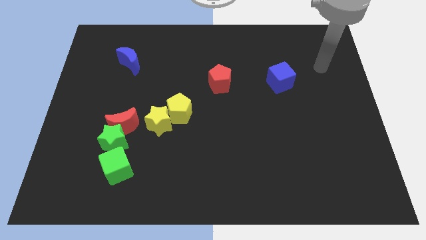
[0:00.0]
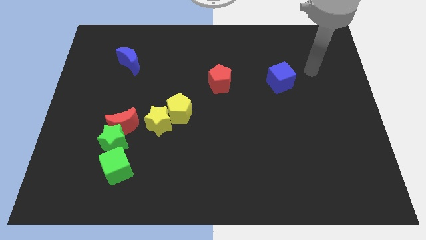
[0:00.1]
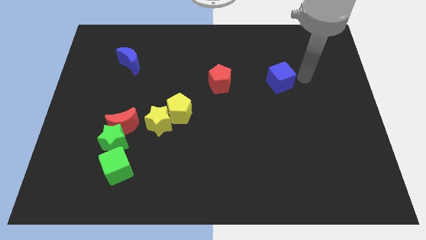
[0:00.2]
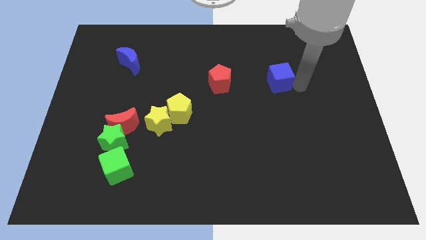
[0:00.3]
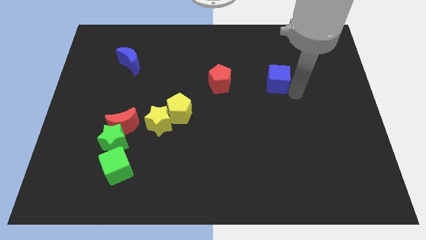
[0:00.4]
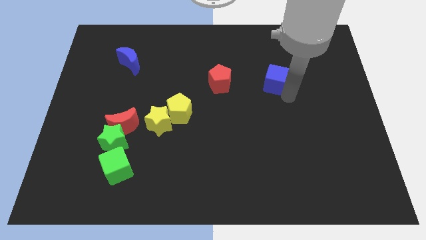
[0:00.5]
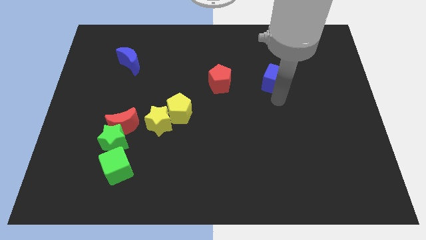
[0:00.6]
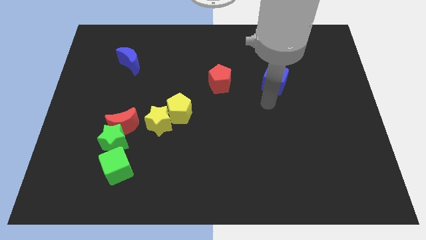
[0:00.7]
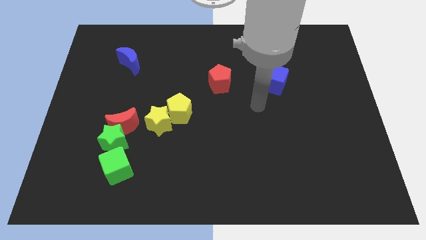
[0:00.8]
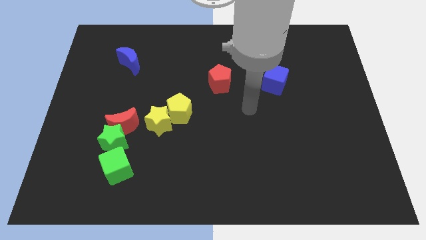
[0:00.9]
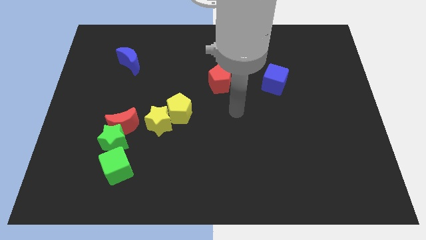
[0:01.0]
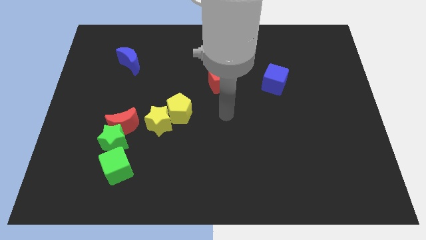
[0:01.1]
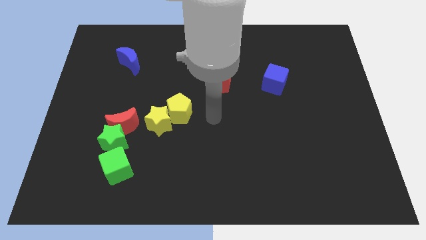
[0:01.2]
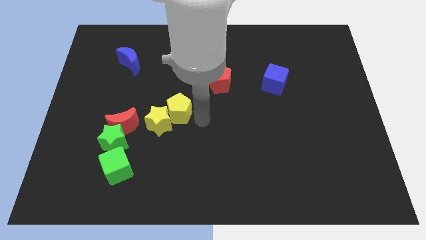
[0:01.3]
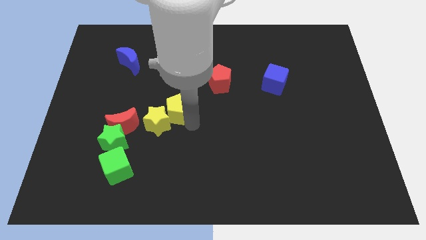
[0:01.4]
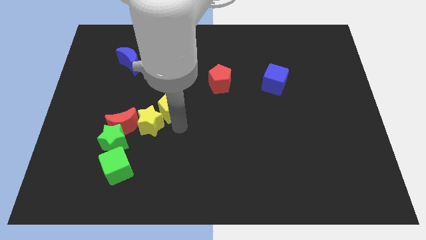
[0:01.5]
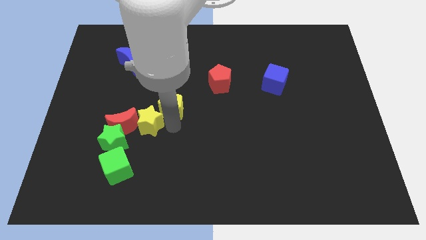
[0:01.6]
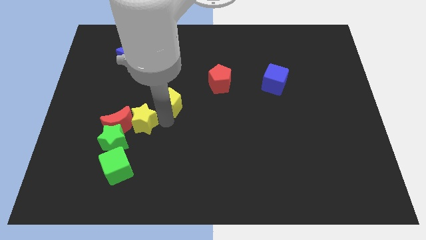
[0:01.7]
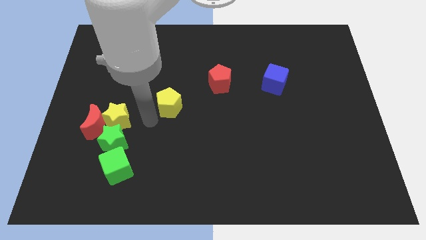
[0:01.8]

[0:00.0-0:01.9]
separate the yellow pentagon from the yellow star

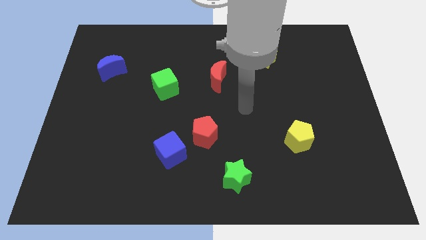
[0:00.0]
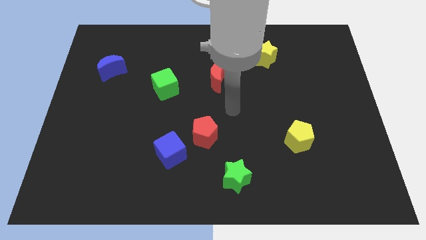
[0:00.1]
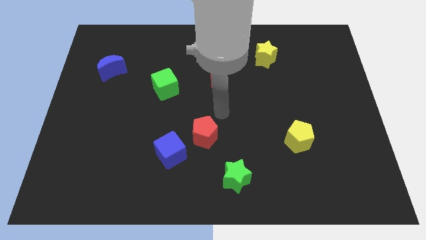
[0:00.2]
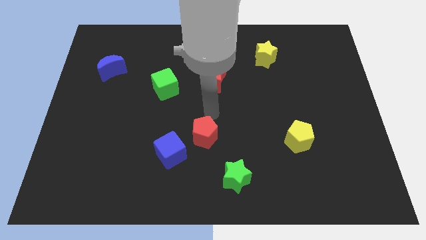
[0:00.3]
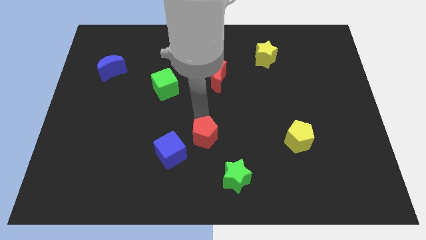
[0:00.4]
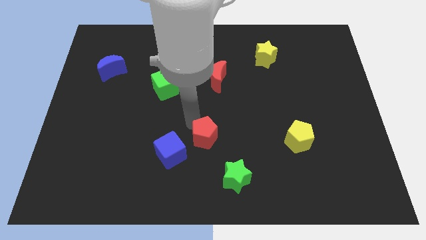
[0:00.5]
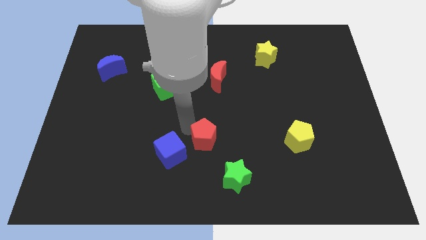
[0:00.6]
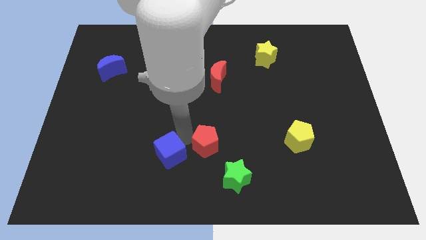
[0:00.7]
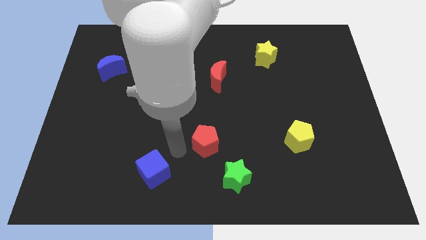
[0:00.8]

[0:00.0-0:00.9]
separate the red pentagon from the blue cube

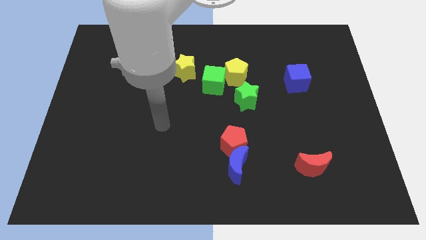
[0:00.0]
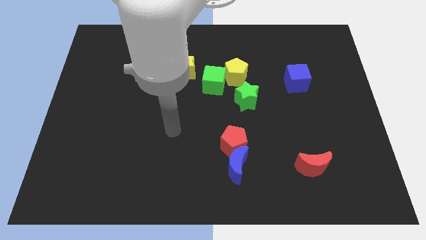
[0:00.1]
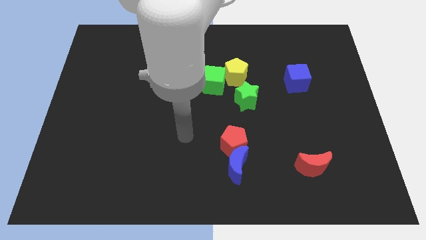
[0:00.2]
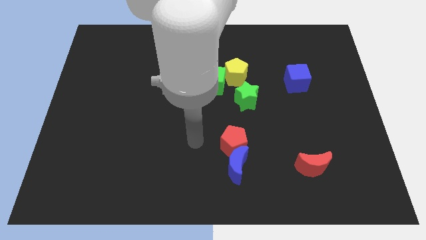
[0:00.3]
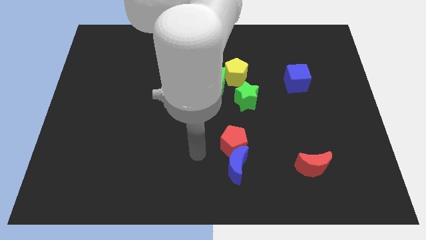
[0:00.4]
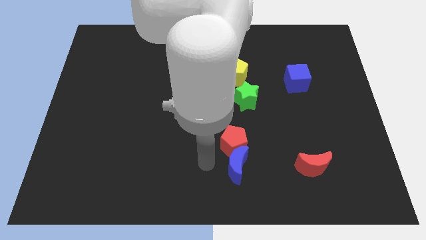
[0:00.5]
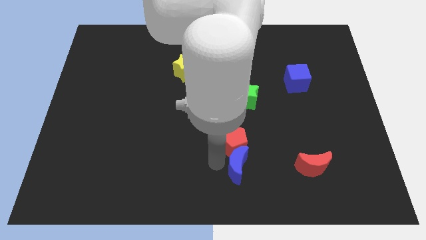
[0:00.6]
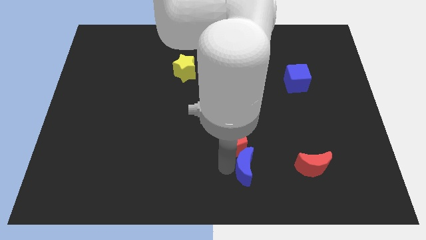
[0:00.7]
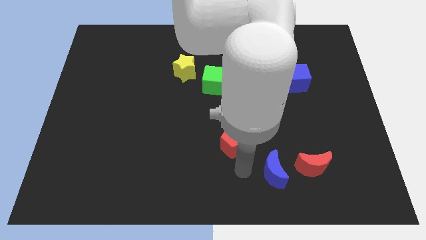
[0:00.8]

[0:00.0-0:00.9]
separate the red pentagon from the blue moon

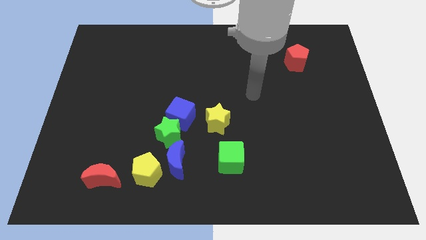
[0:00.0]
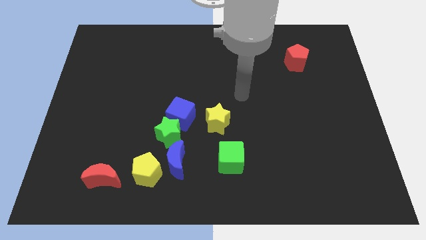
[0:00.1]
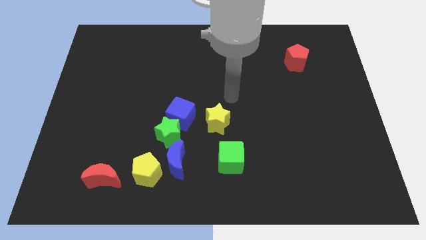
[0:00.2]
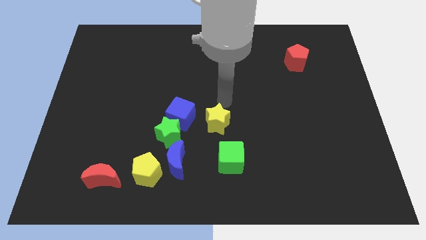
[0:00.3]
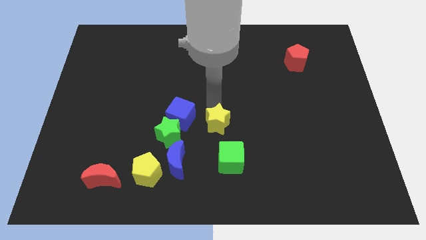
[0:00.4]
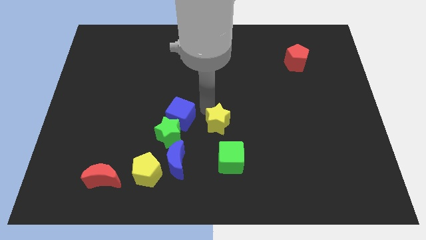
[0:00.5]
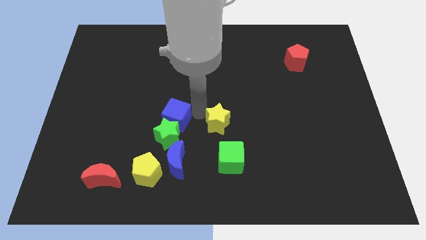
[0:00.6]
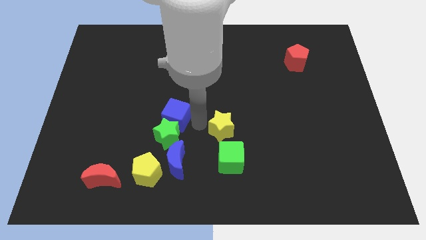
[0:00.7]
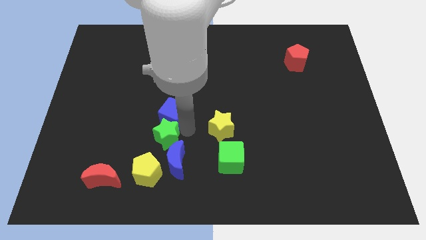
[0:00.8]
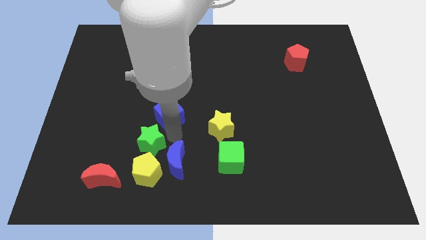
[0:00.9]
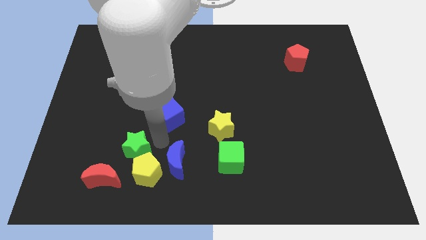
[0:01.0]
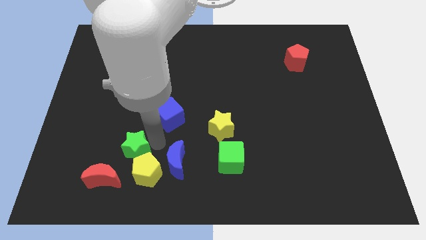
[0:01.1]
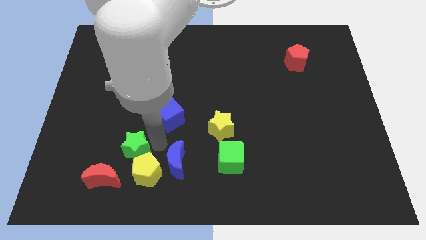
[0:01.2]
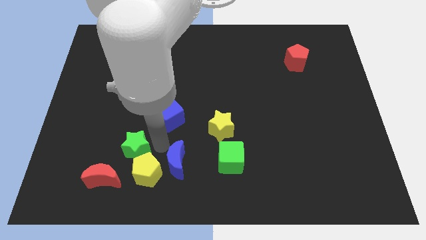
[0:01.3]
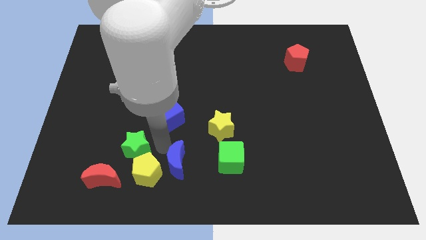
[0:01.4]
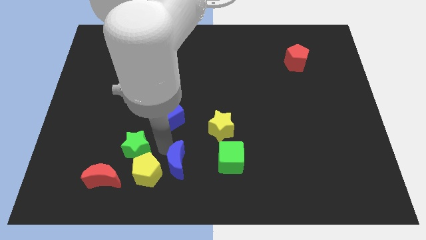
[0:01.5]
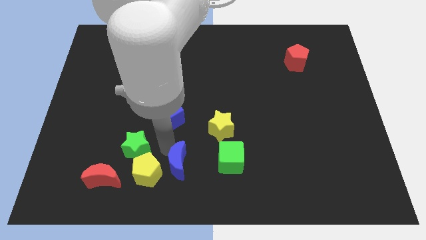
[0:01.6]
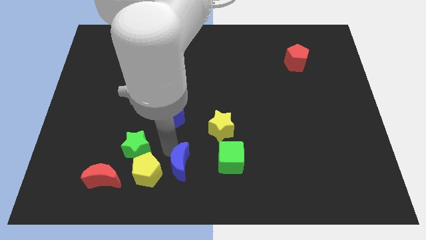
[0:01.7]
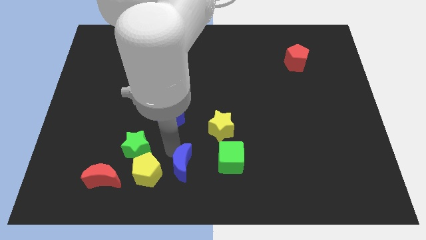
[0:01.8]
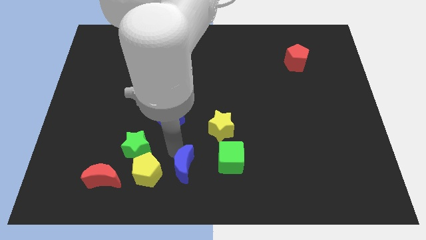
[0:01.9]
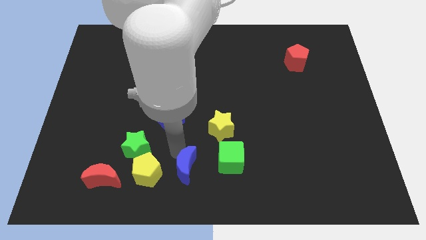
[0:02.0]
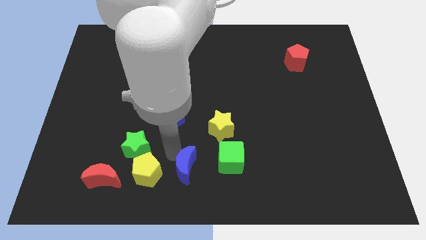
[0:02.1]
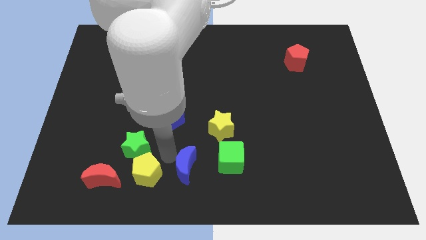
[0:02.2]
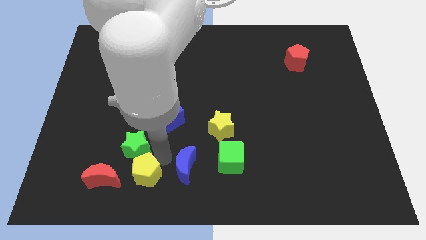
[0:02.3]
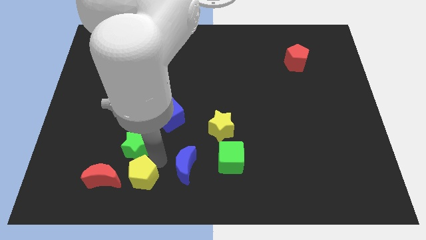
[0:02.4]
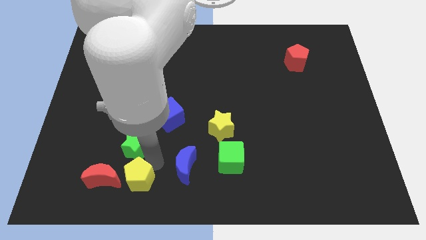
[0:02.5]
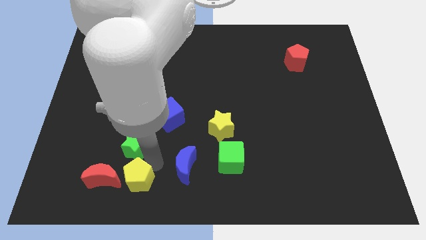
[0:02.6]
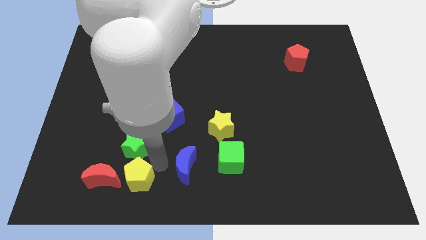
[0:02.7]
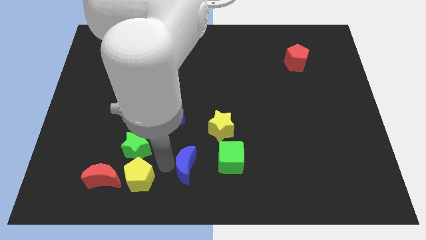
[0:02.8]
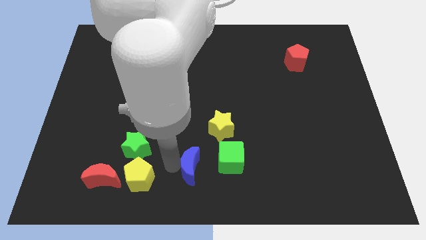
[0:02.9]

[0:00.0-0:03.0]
move the blue moon away from the yellow pentagon and green star

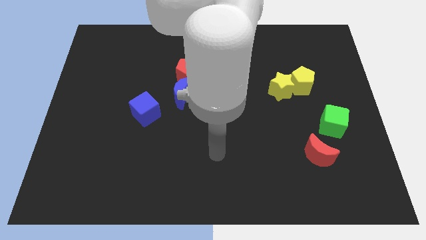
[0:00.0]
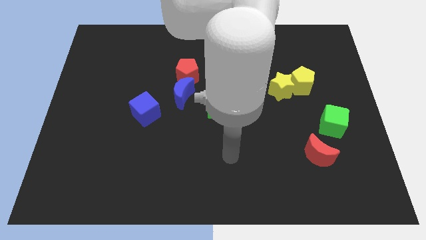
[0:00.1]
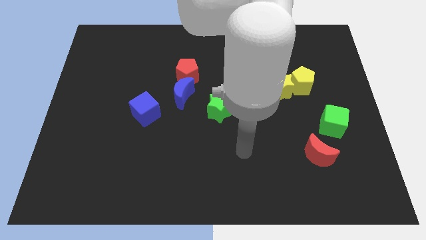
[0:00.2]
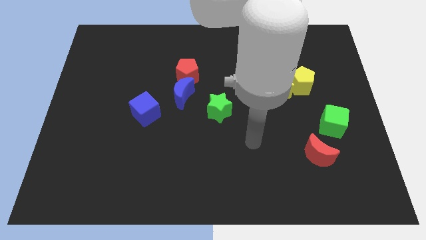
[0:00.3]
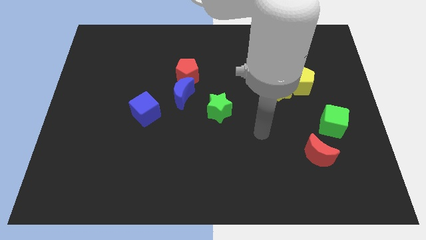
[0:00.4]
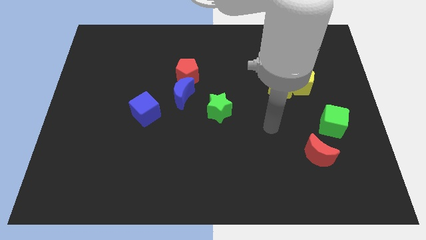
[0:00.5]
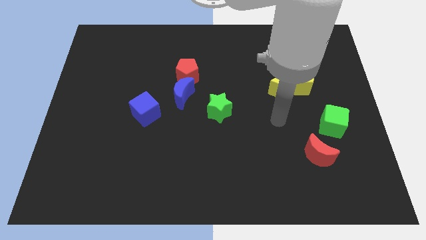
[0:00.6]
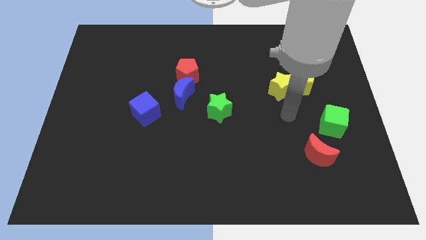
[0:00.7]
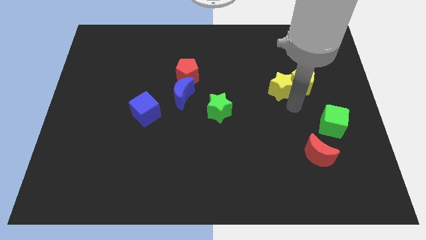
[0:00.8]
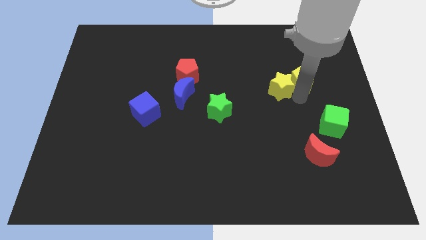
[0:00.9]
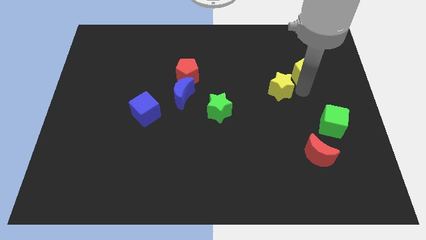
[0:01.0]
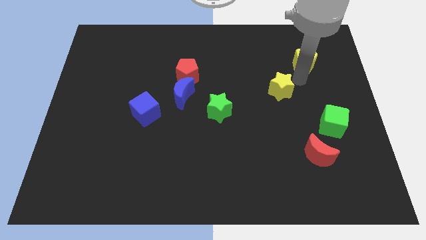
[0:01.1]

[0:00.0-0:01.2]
move the yellow star away from the yellow pentagon

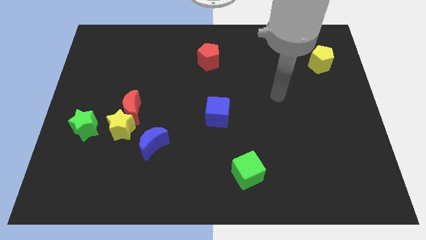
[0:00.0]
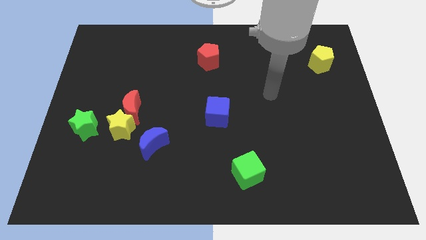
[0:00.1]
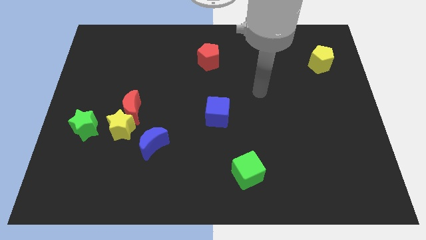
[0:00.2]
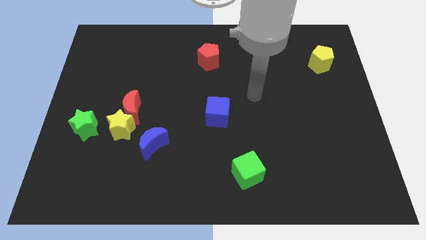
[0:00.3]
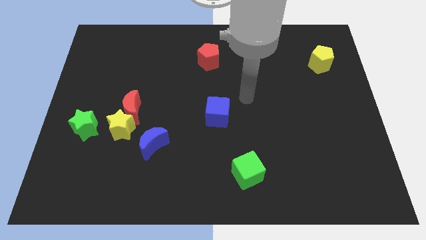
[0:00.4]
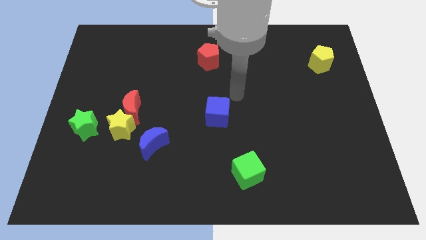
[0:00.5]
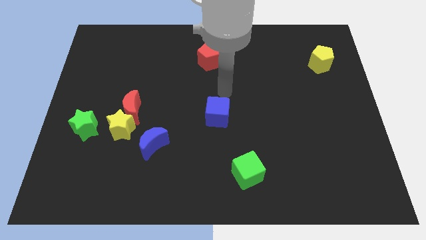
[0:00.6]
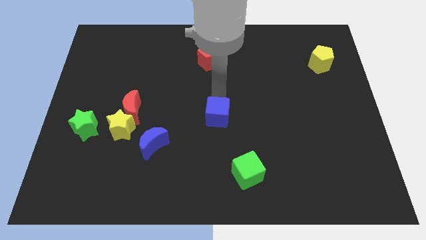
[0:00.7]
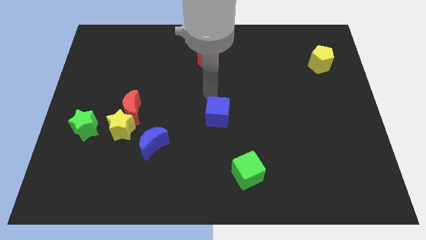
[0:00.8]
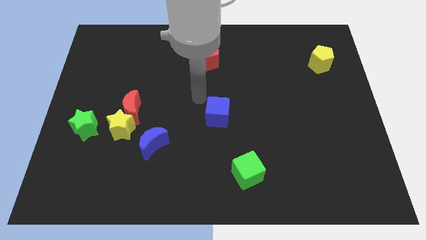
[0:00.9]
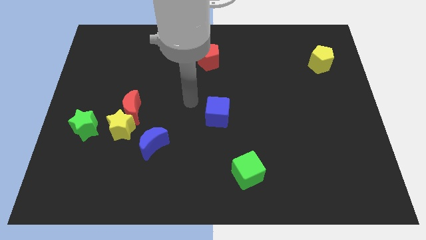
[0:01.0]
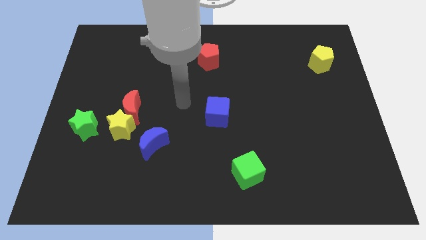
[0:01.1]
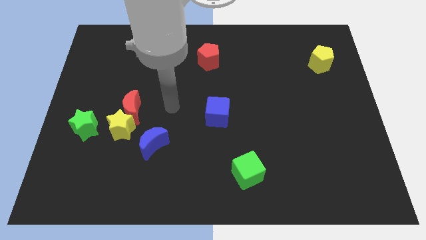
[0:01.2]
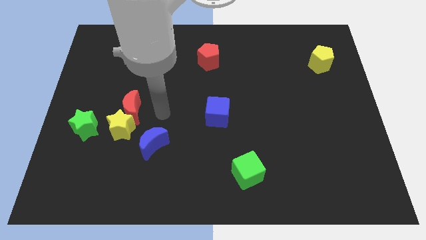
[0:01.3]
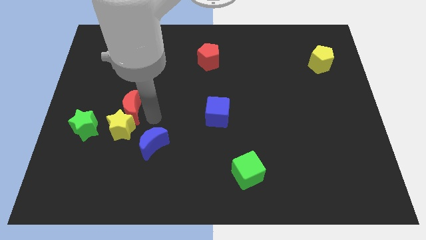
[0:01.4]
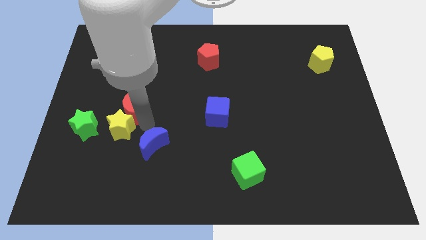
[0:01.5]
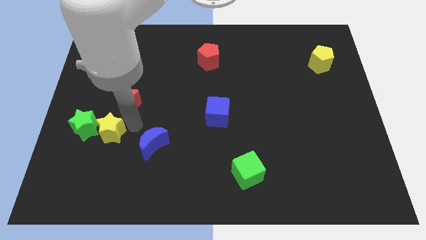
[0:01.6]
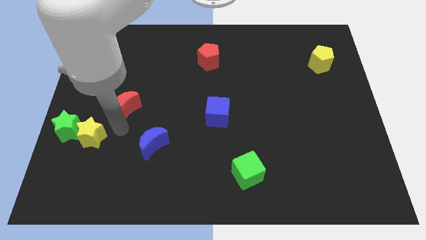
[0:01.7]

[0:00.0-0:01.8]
separate the red moon from the yellow star
